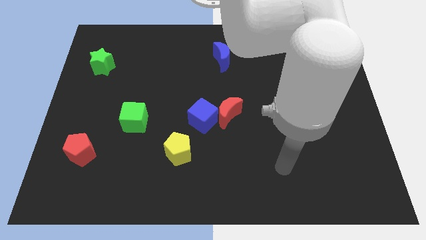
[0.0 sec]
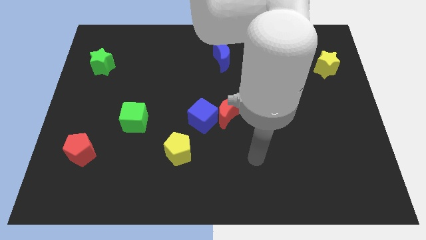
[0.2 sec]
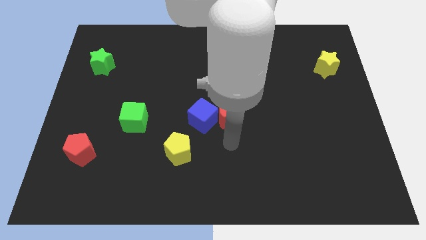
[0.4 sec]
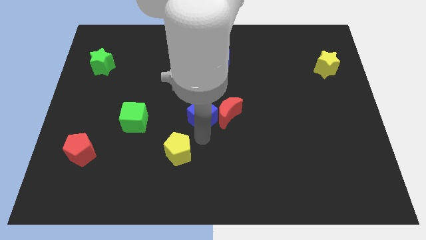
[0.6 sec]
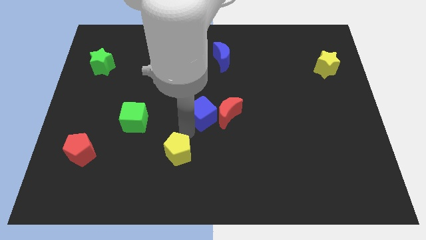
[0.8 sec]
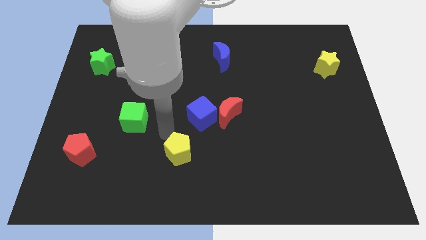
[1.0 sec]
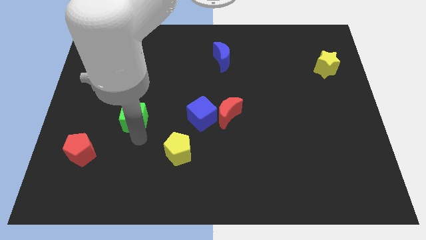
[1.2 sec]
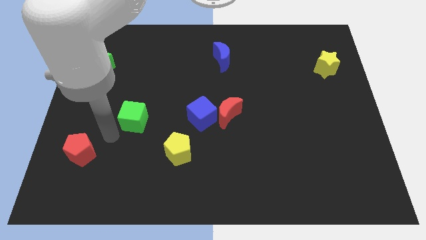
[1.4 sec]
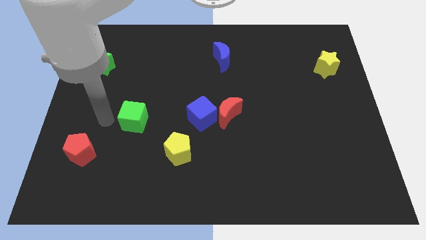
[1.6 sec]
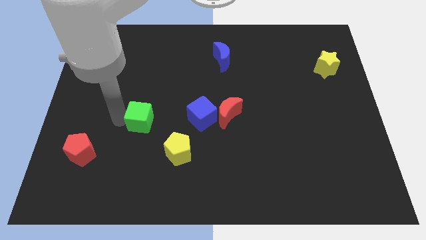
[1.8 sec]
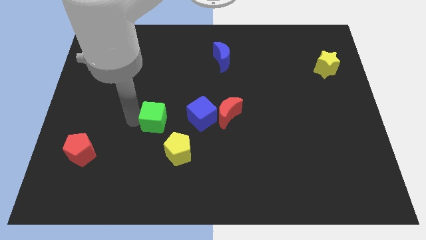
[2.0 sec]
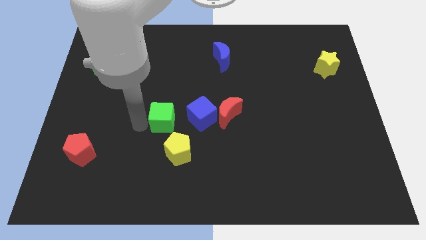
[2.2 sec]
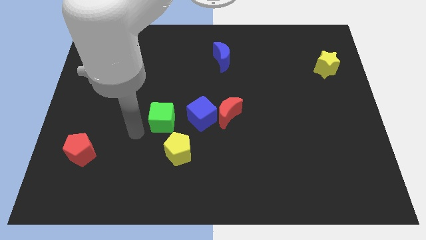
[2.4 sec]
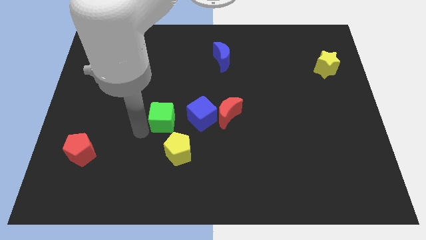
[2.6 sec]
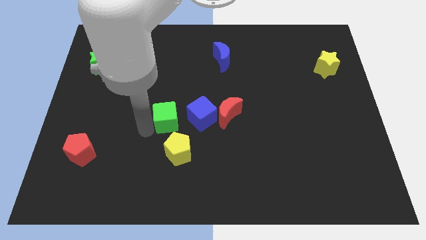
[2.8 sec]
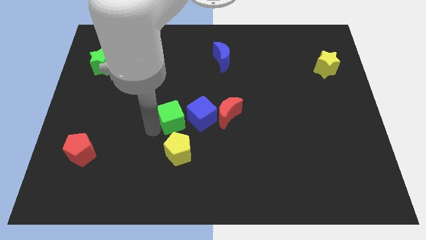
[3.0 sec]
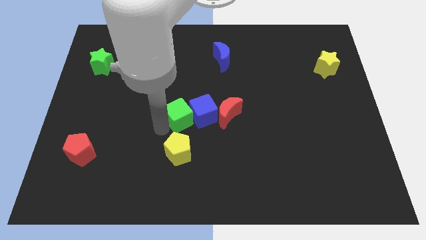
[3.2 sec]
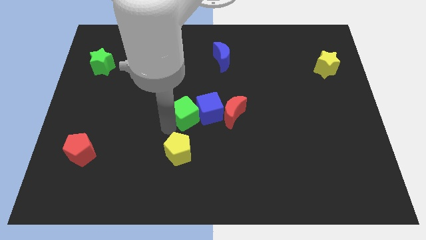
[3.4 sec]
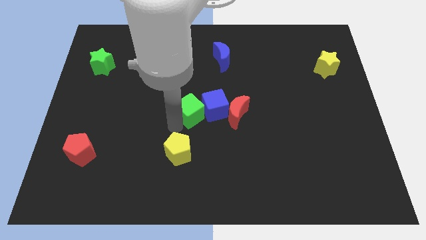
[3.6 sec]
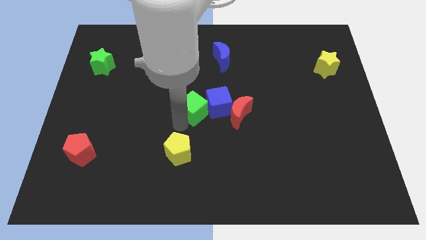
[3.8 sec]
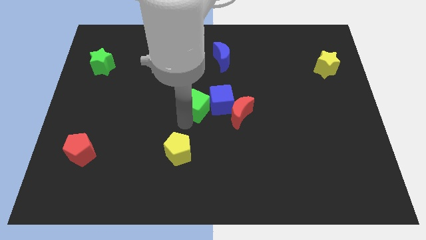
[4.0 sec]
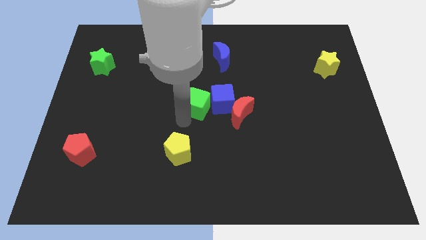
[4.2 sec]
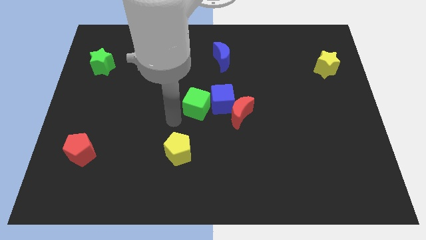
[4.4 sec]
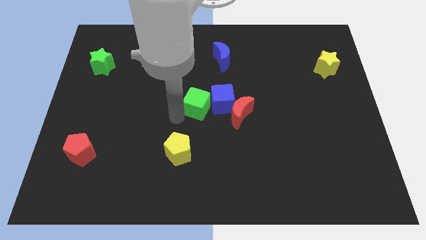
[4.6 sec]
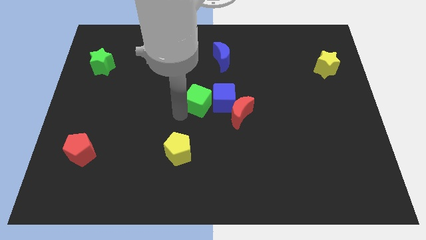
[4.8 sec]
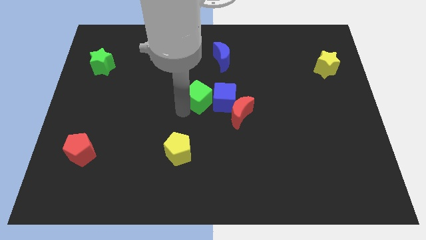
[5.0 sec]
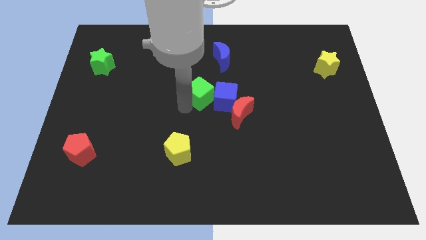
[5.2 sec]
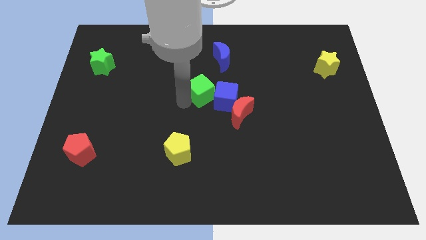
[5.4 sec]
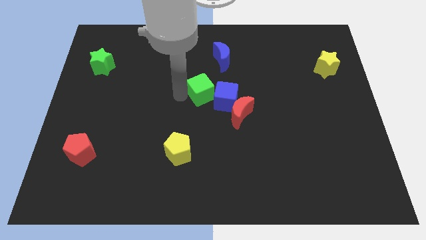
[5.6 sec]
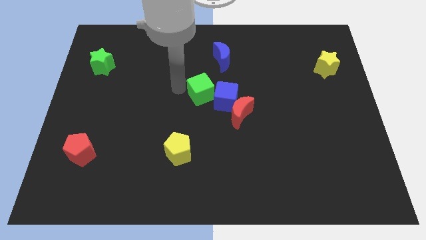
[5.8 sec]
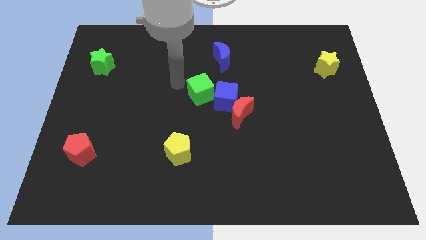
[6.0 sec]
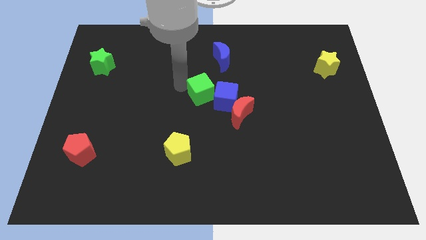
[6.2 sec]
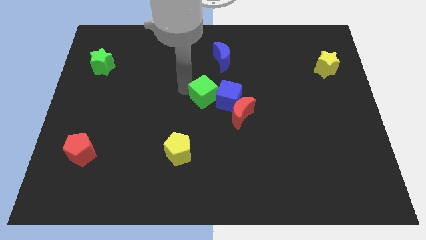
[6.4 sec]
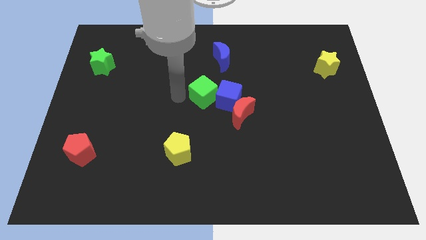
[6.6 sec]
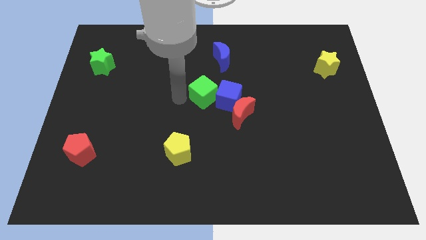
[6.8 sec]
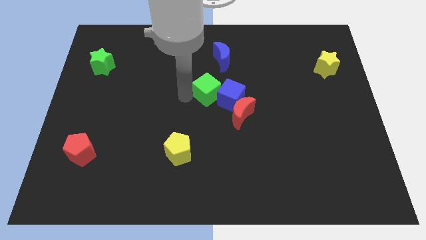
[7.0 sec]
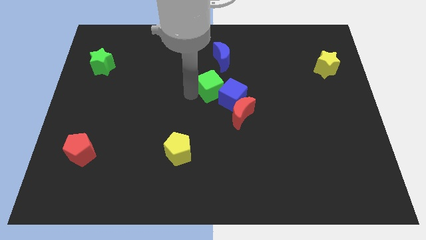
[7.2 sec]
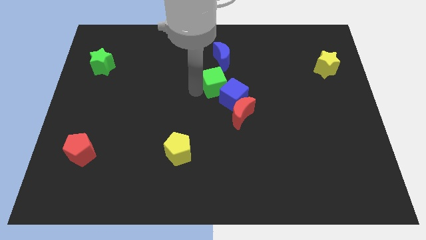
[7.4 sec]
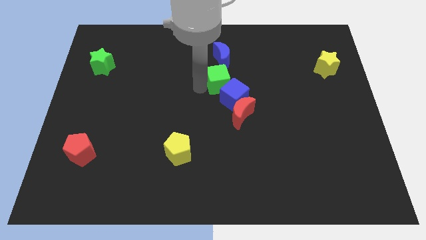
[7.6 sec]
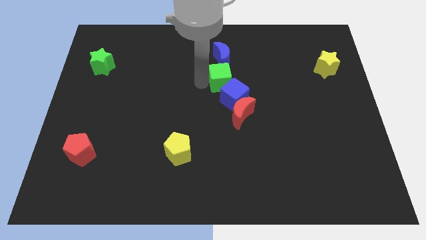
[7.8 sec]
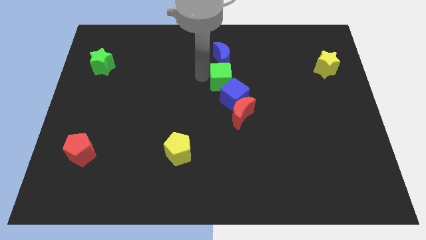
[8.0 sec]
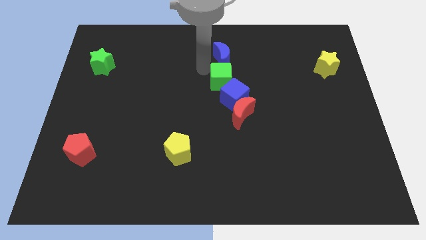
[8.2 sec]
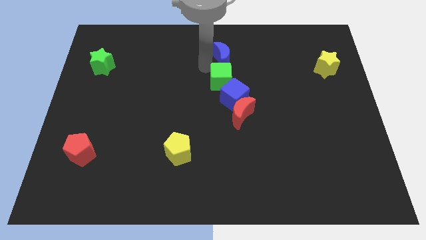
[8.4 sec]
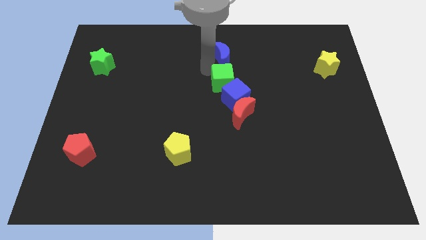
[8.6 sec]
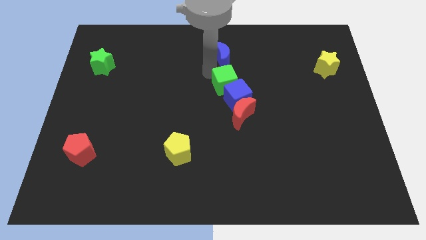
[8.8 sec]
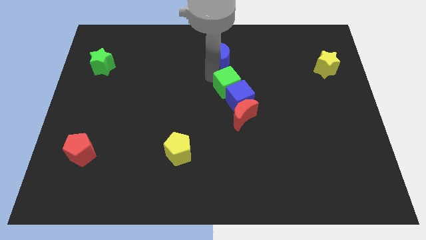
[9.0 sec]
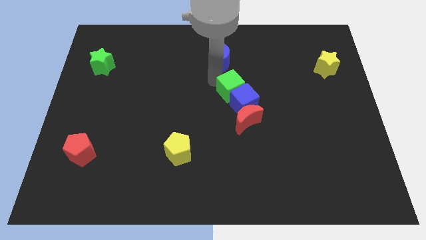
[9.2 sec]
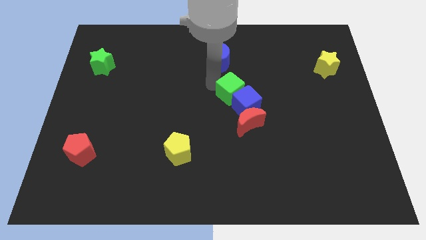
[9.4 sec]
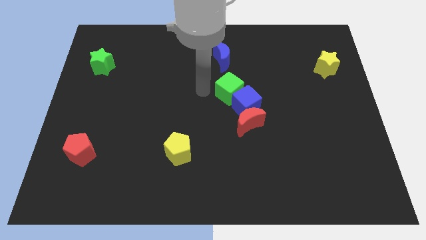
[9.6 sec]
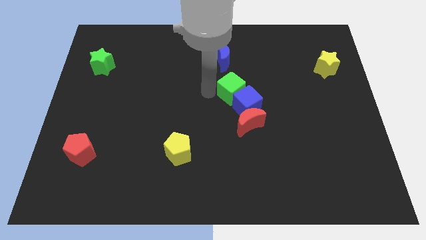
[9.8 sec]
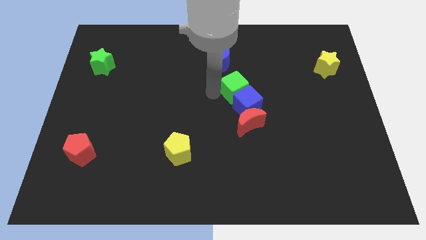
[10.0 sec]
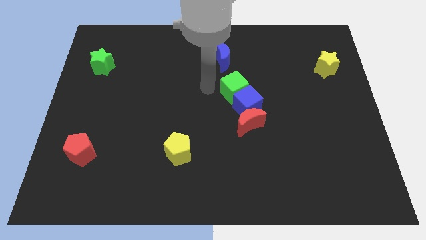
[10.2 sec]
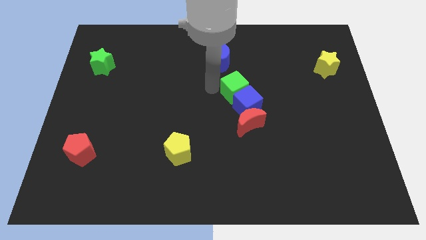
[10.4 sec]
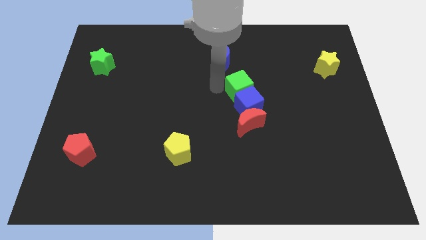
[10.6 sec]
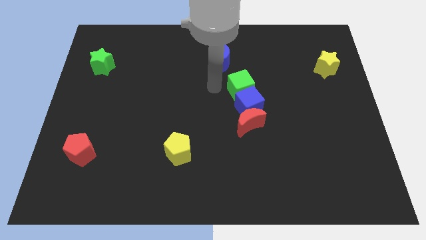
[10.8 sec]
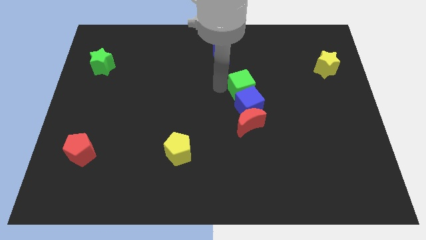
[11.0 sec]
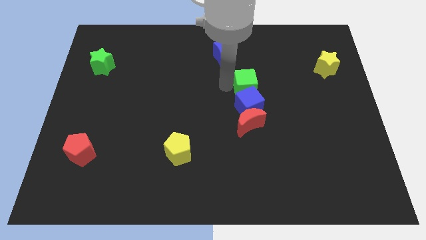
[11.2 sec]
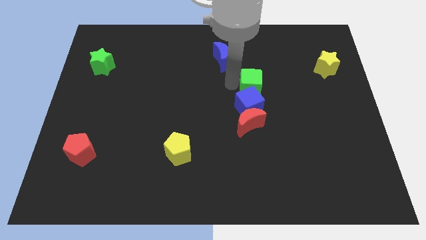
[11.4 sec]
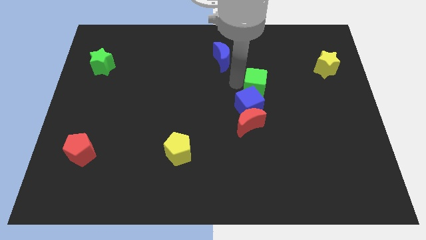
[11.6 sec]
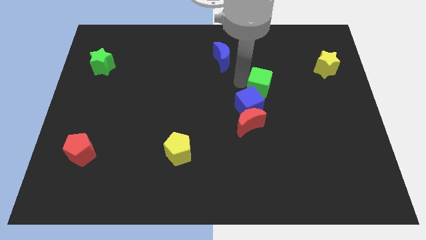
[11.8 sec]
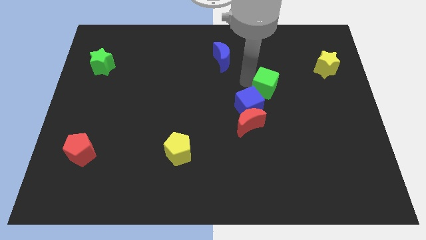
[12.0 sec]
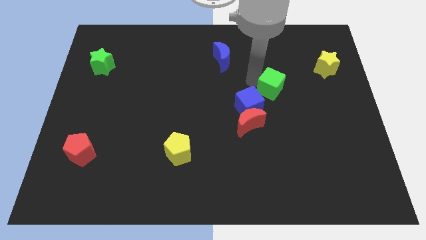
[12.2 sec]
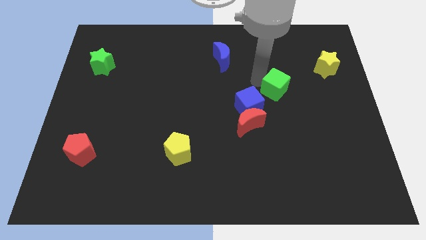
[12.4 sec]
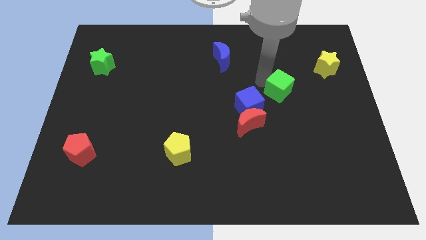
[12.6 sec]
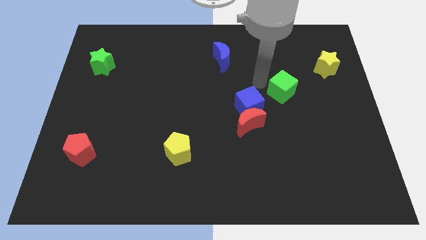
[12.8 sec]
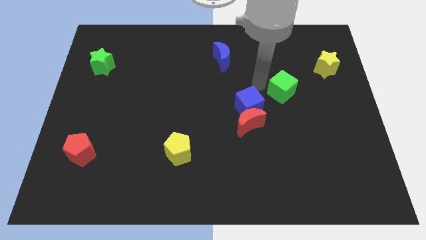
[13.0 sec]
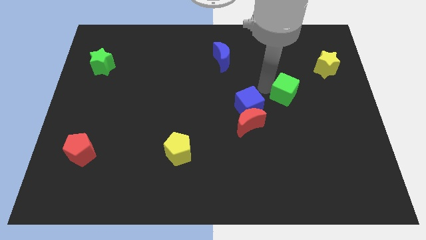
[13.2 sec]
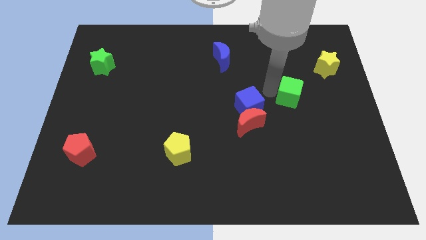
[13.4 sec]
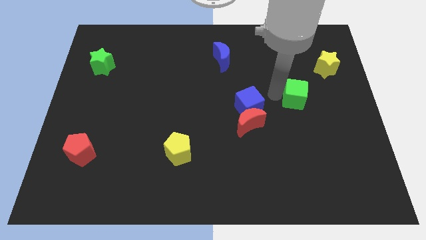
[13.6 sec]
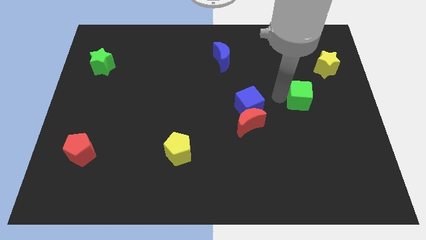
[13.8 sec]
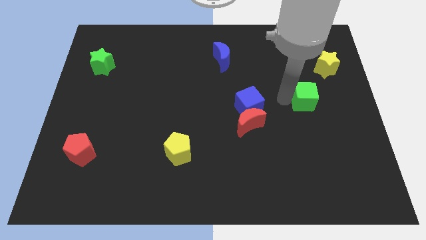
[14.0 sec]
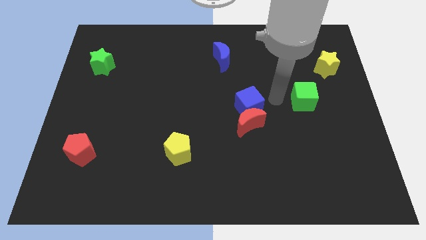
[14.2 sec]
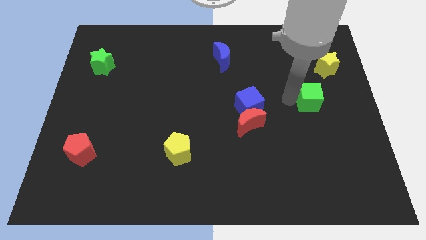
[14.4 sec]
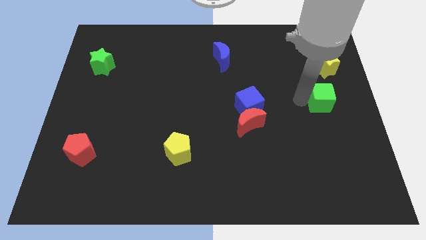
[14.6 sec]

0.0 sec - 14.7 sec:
slide the green cube to the right side of the board
